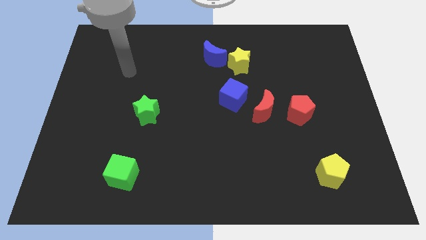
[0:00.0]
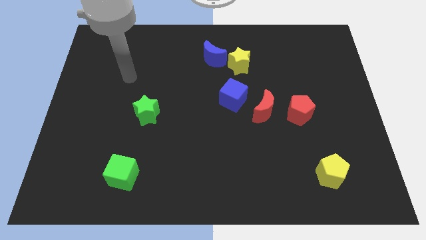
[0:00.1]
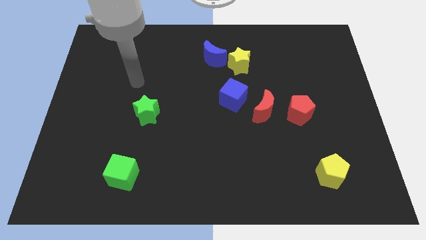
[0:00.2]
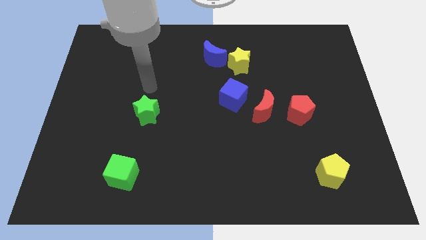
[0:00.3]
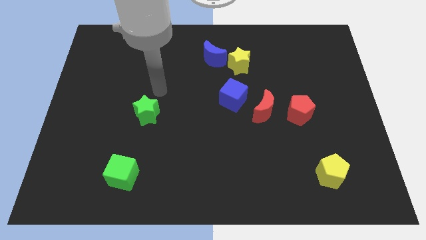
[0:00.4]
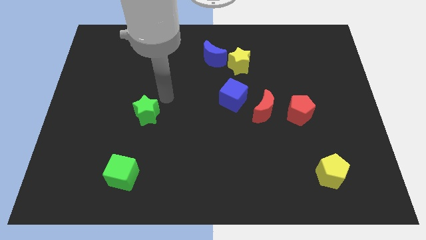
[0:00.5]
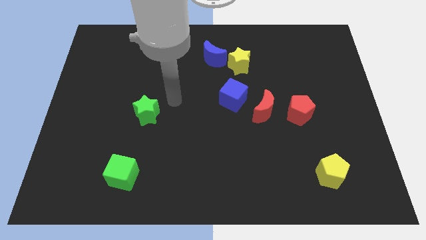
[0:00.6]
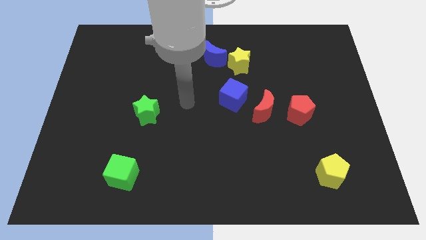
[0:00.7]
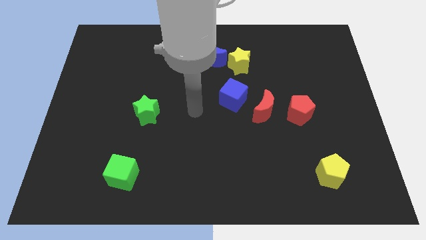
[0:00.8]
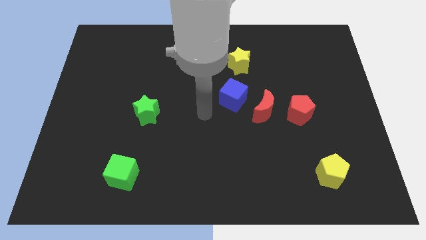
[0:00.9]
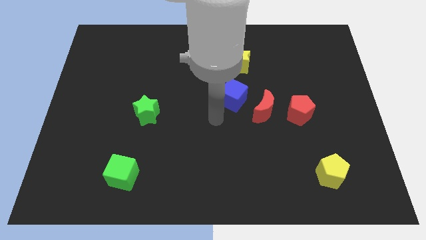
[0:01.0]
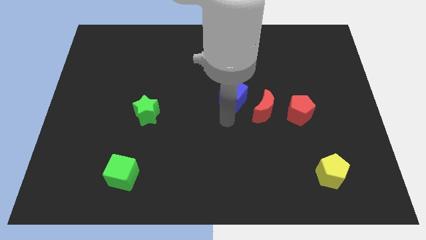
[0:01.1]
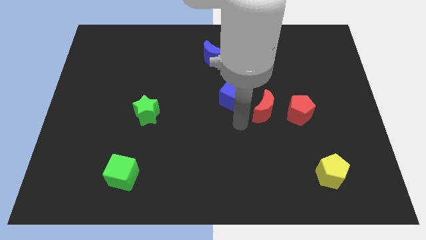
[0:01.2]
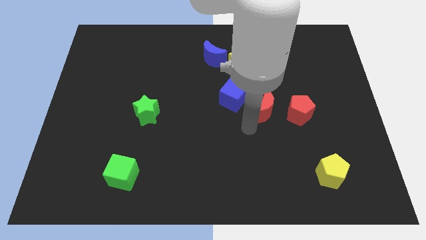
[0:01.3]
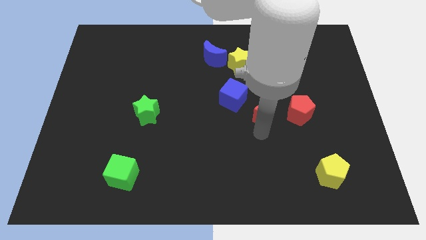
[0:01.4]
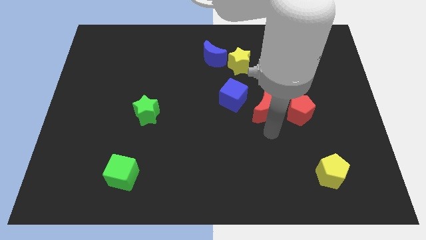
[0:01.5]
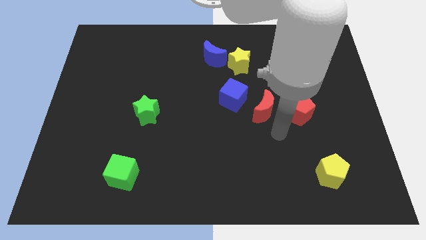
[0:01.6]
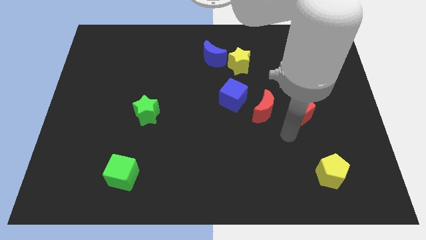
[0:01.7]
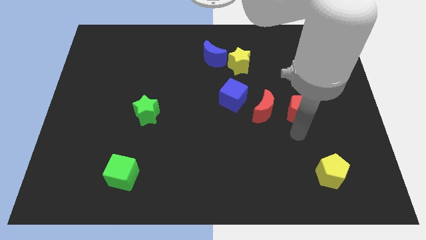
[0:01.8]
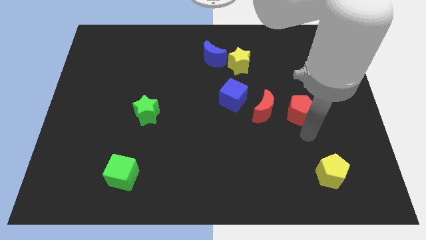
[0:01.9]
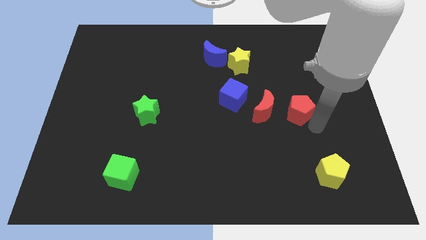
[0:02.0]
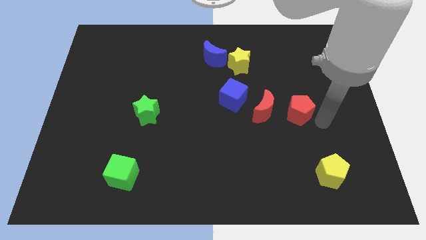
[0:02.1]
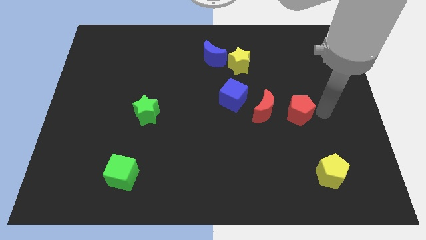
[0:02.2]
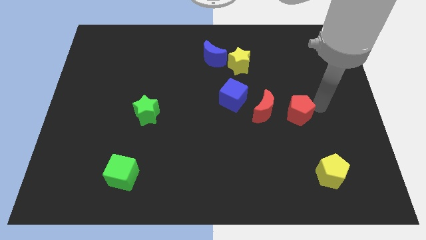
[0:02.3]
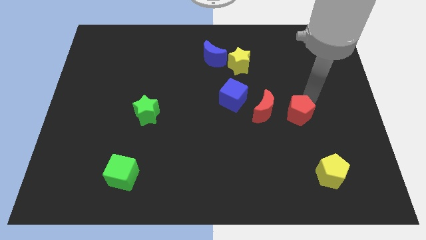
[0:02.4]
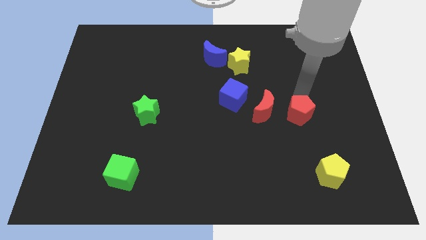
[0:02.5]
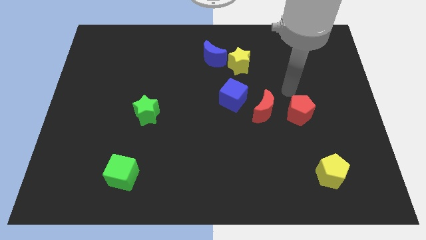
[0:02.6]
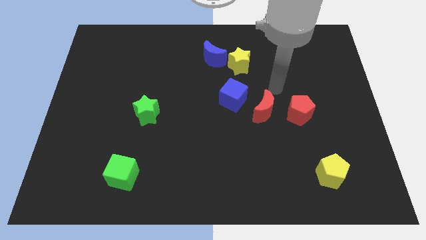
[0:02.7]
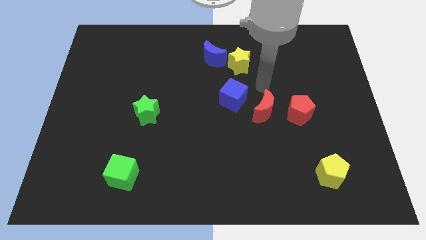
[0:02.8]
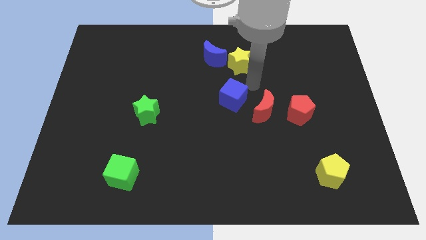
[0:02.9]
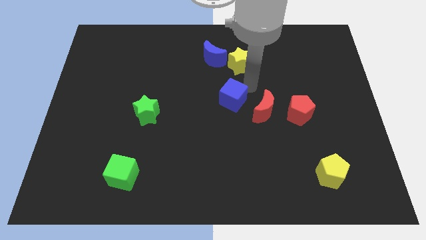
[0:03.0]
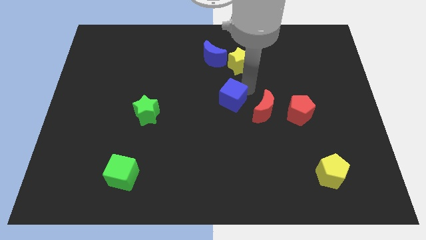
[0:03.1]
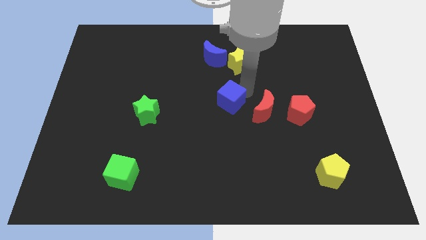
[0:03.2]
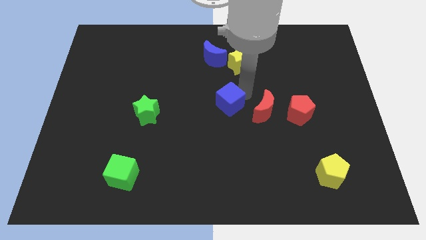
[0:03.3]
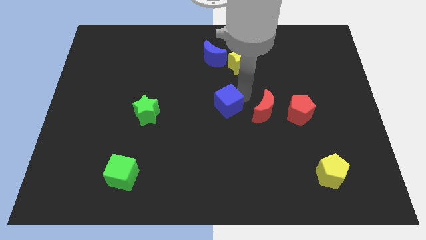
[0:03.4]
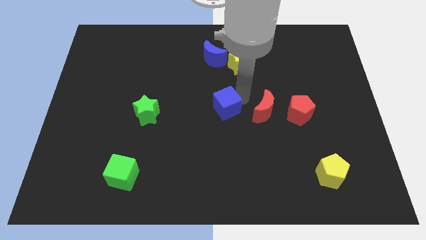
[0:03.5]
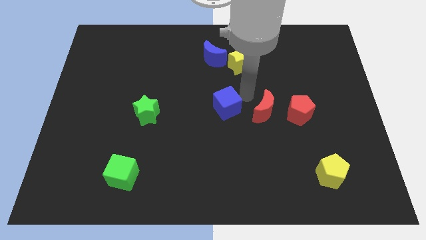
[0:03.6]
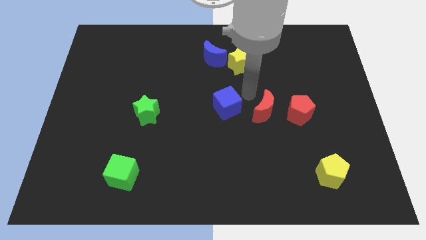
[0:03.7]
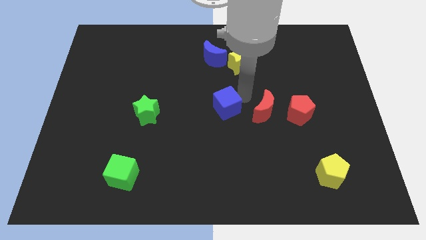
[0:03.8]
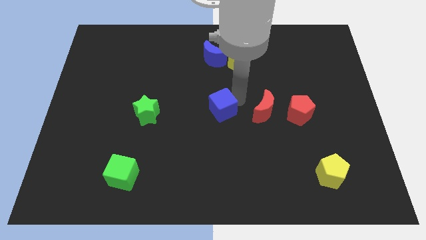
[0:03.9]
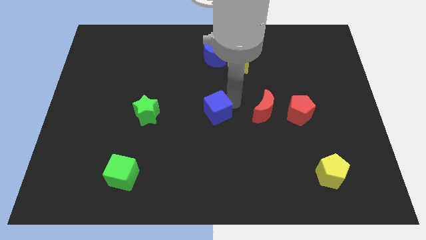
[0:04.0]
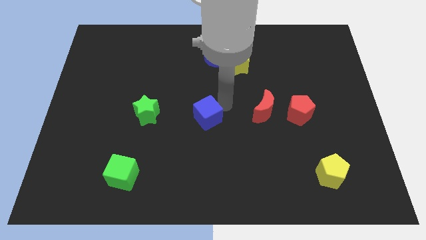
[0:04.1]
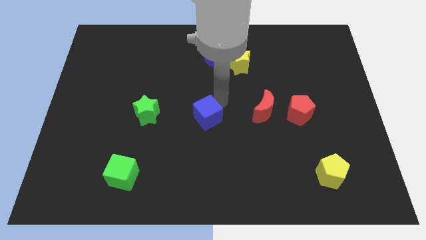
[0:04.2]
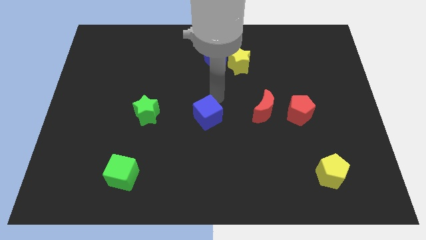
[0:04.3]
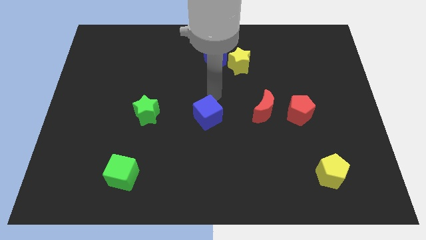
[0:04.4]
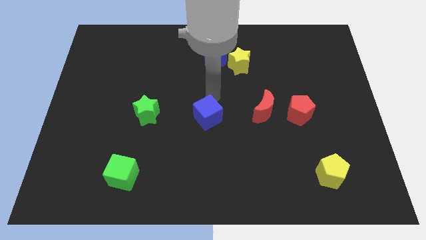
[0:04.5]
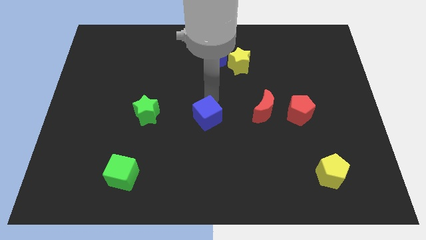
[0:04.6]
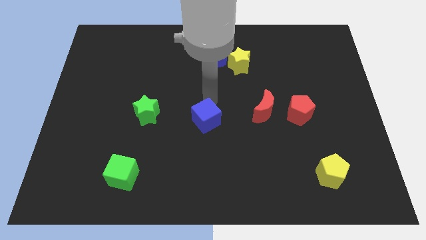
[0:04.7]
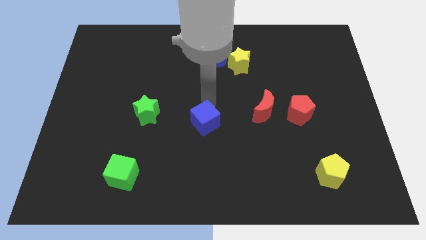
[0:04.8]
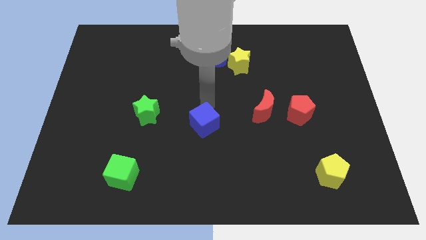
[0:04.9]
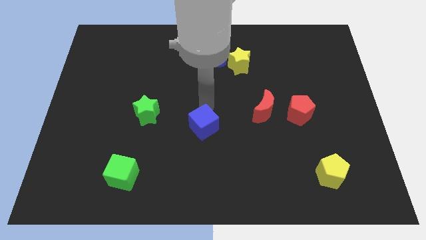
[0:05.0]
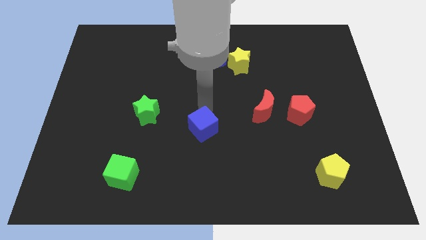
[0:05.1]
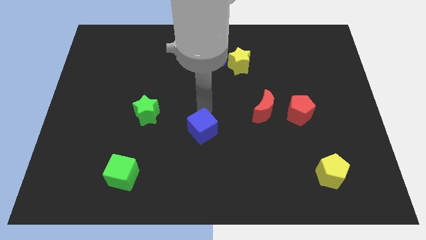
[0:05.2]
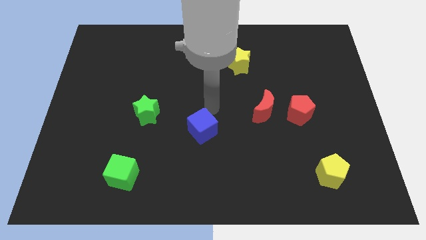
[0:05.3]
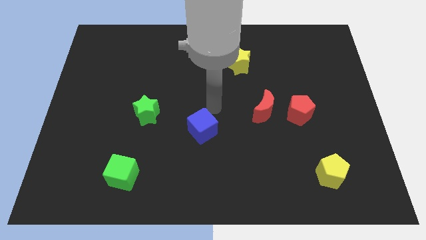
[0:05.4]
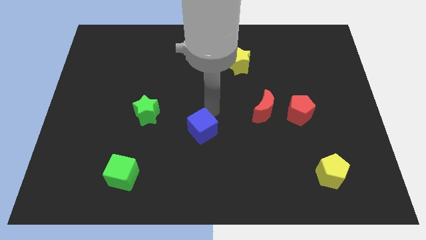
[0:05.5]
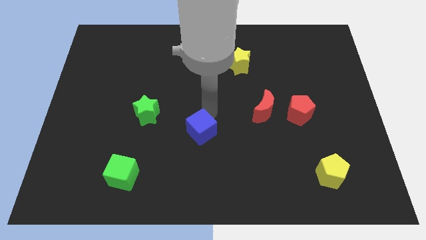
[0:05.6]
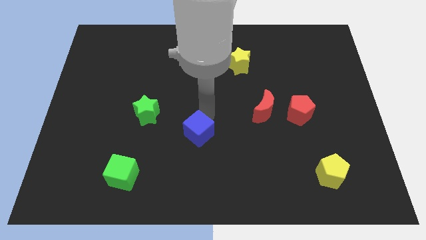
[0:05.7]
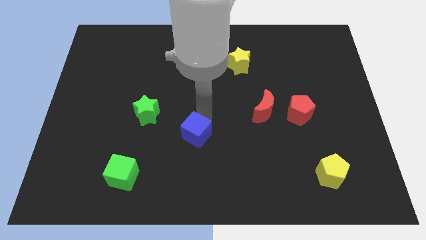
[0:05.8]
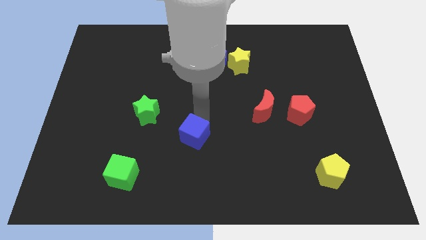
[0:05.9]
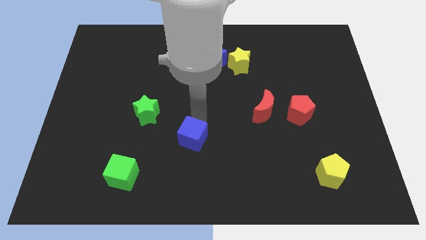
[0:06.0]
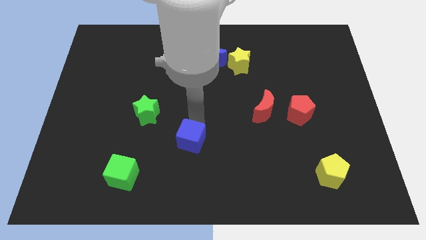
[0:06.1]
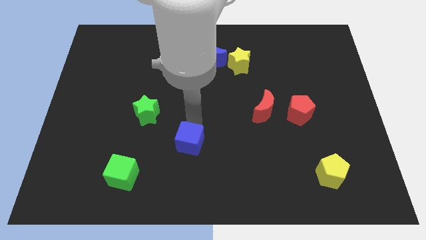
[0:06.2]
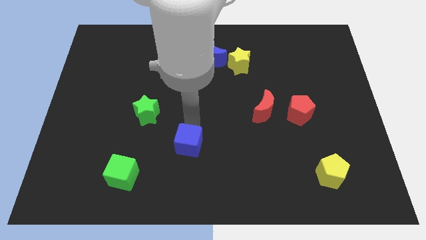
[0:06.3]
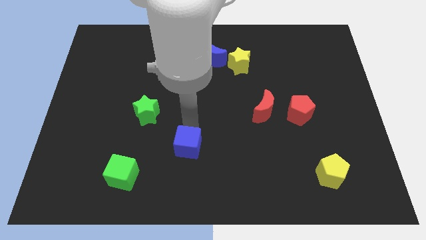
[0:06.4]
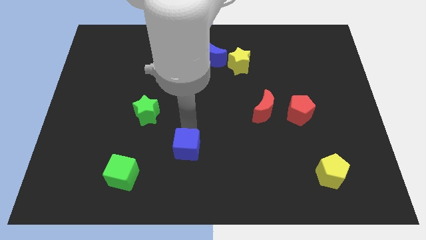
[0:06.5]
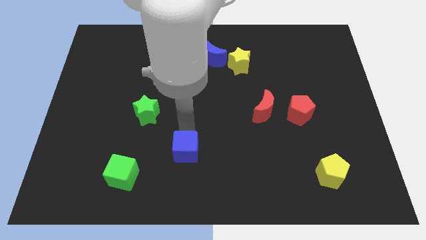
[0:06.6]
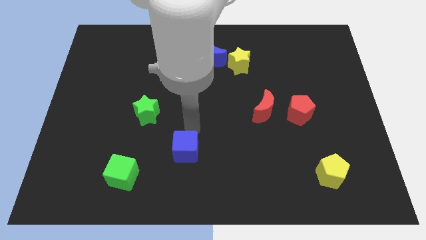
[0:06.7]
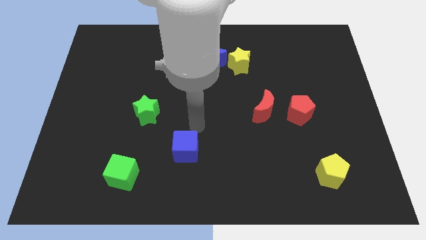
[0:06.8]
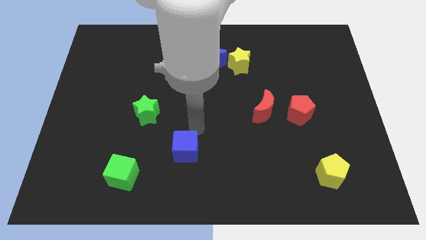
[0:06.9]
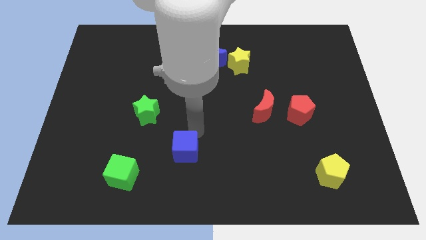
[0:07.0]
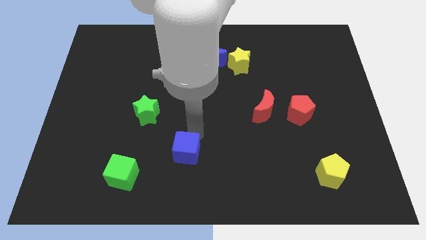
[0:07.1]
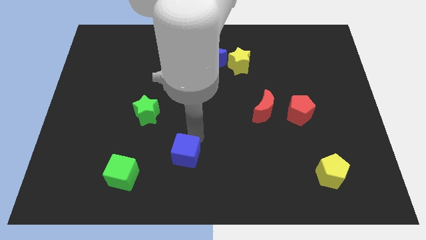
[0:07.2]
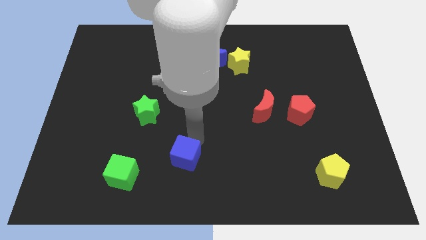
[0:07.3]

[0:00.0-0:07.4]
push the blue cube to the right of the green cube
